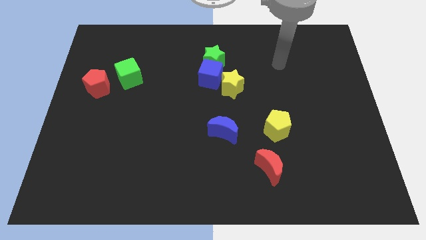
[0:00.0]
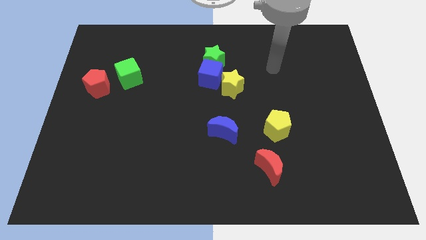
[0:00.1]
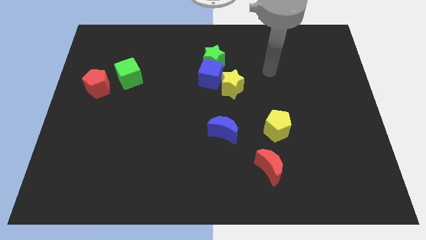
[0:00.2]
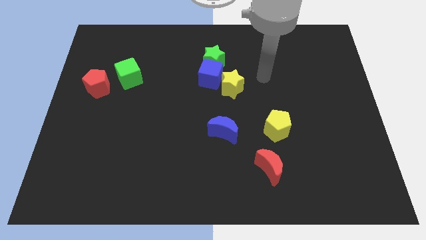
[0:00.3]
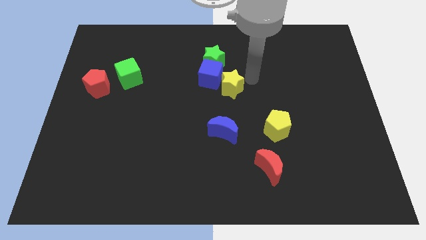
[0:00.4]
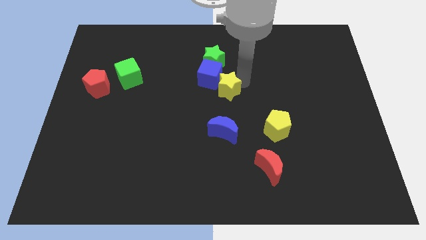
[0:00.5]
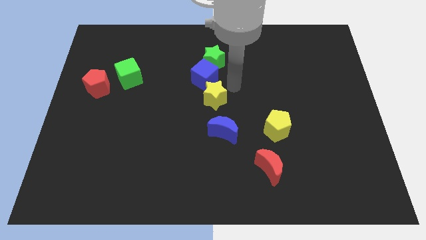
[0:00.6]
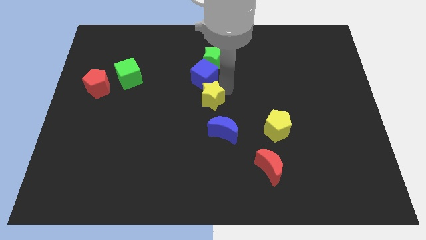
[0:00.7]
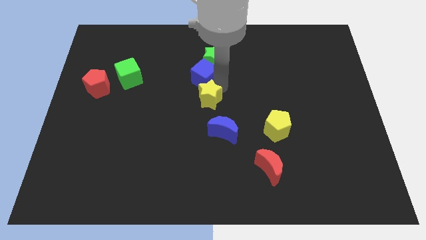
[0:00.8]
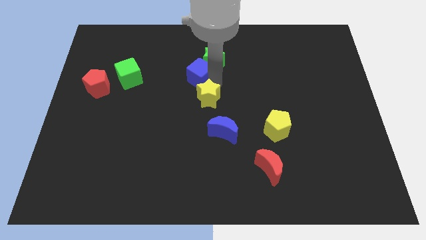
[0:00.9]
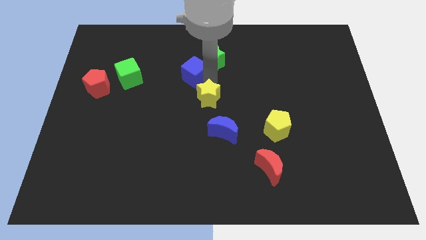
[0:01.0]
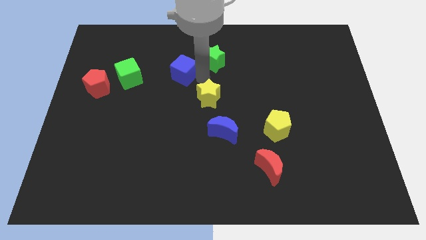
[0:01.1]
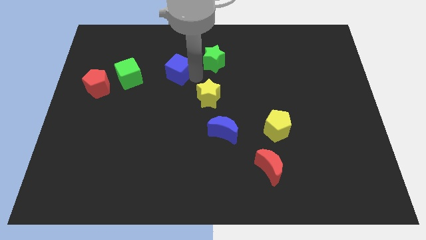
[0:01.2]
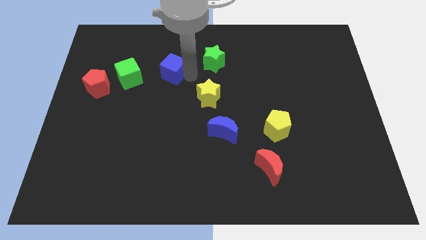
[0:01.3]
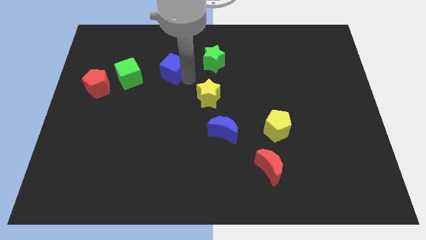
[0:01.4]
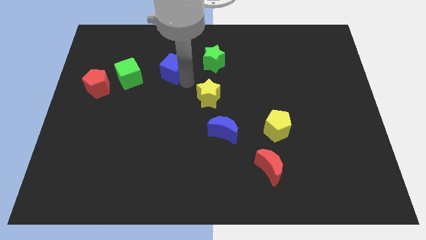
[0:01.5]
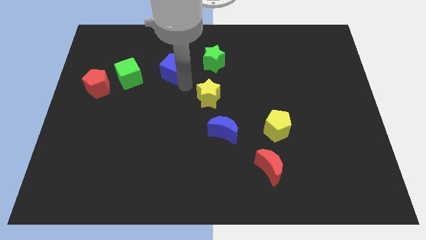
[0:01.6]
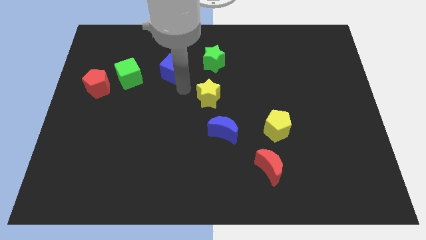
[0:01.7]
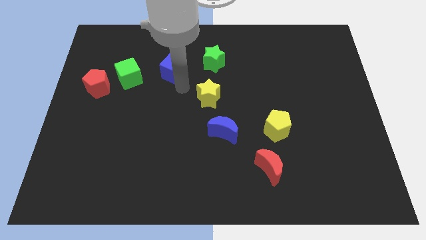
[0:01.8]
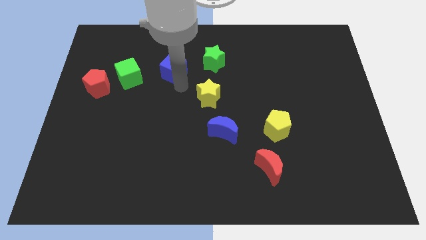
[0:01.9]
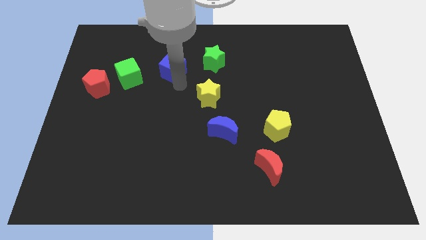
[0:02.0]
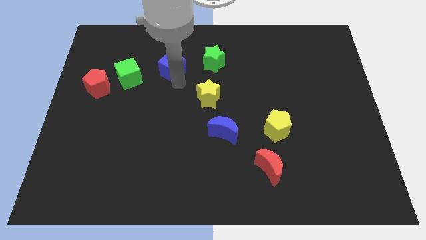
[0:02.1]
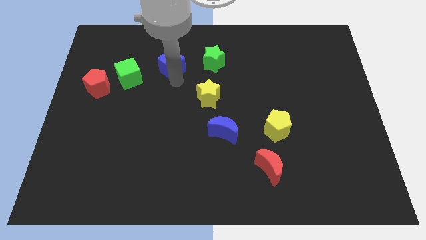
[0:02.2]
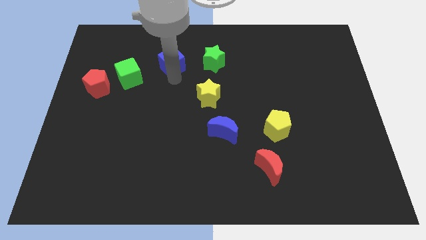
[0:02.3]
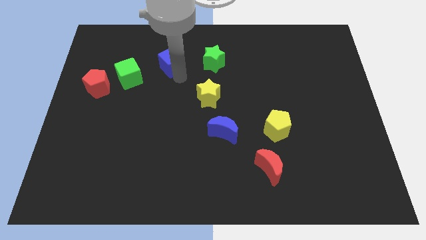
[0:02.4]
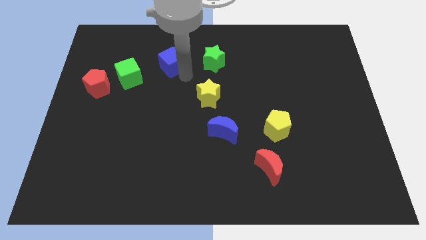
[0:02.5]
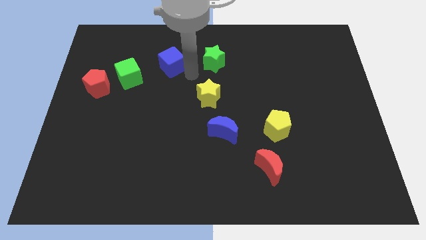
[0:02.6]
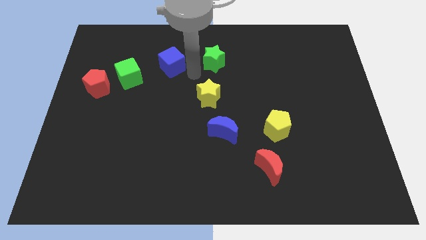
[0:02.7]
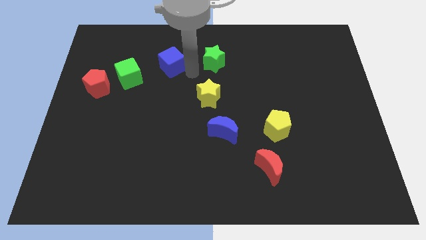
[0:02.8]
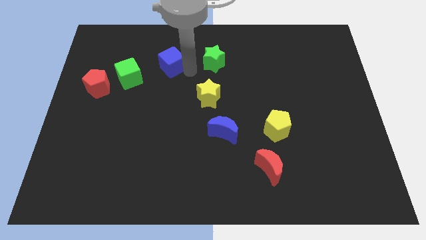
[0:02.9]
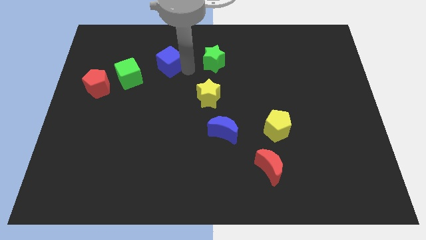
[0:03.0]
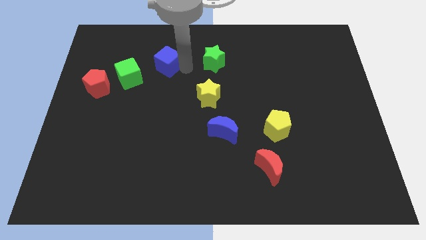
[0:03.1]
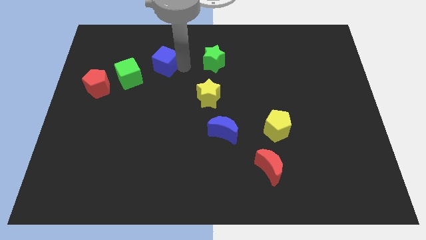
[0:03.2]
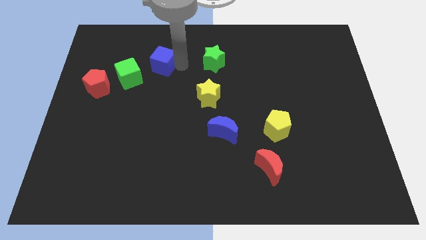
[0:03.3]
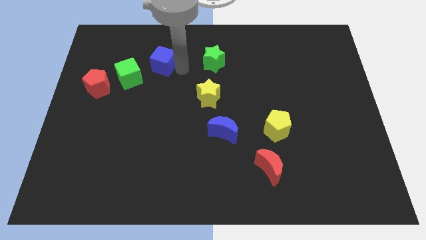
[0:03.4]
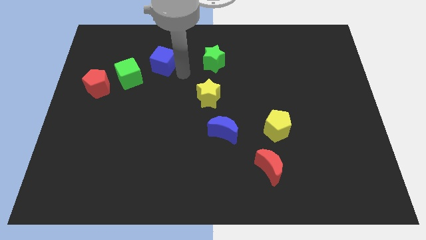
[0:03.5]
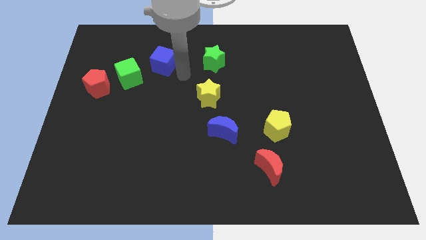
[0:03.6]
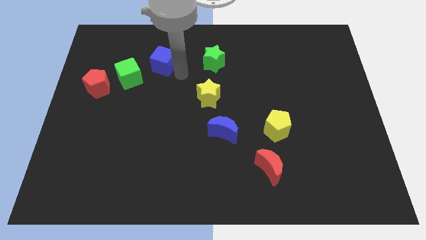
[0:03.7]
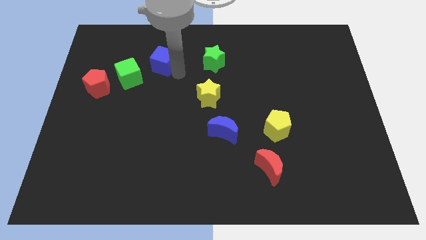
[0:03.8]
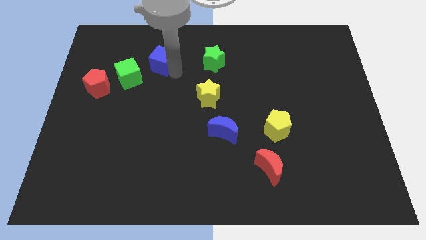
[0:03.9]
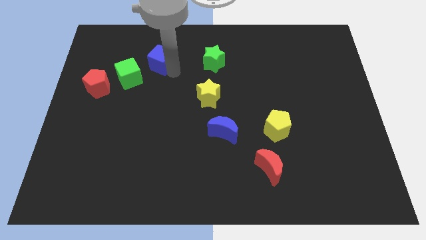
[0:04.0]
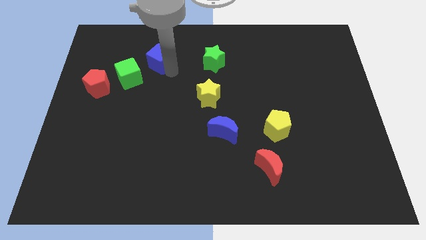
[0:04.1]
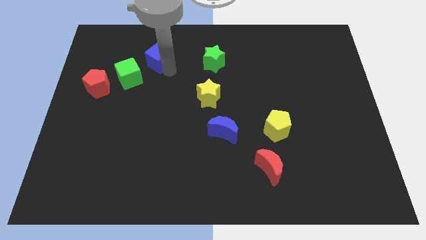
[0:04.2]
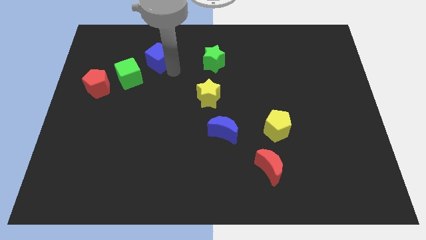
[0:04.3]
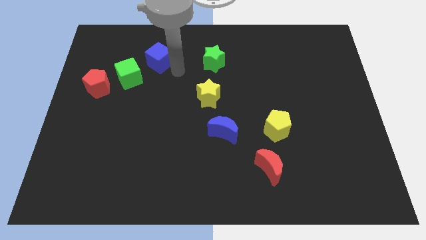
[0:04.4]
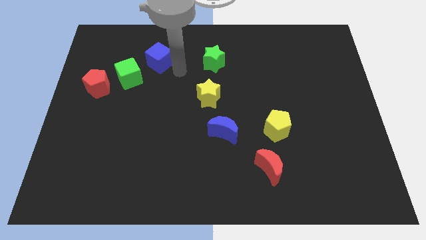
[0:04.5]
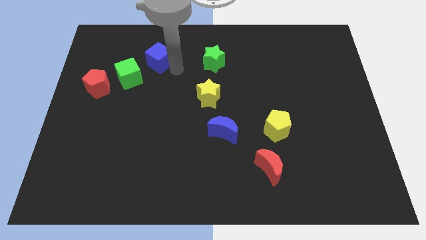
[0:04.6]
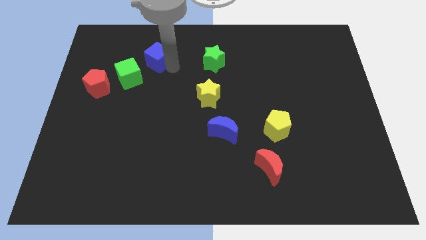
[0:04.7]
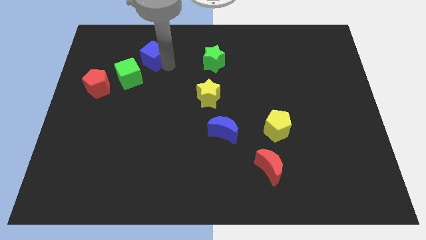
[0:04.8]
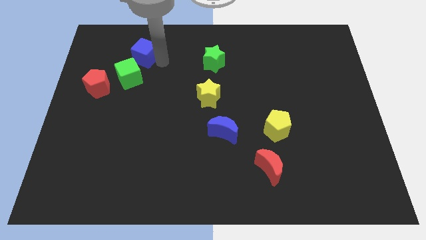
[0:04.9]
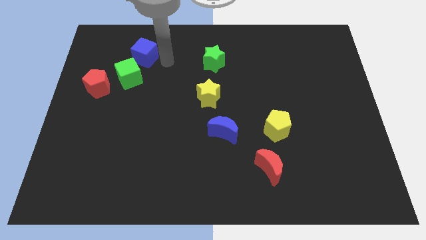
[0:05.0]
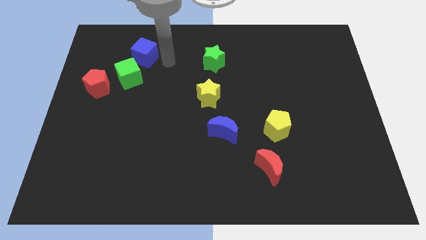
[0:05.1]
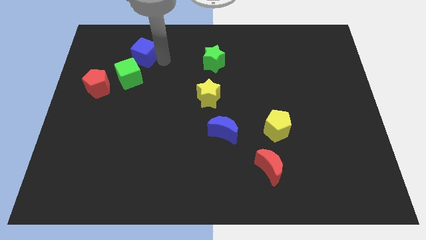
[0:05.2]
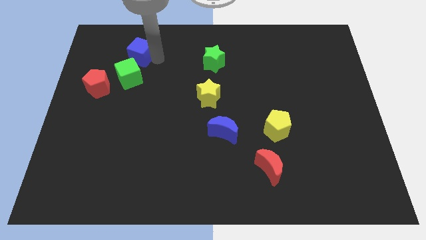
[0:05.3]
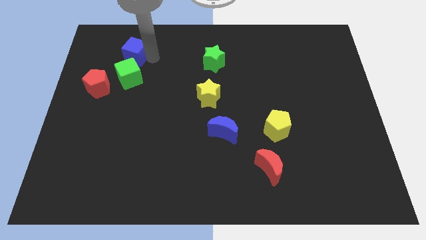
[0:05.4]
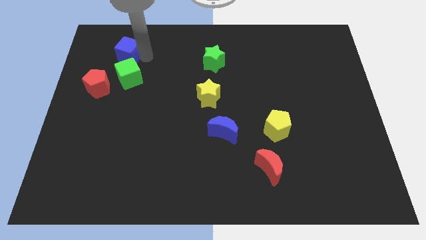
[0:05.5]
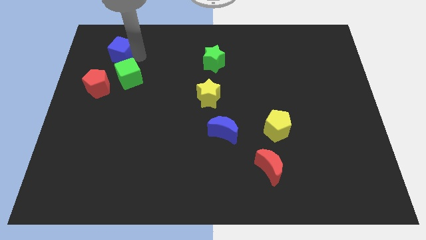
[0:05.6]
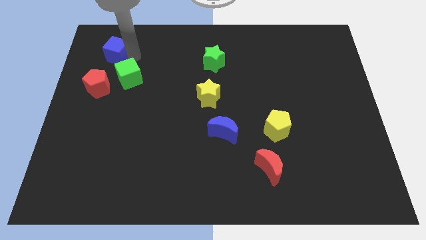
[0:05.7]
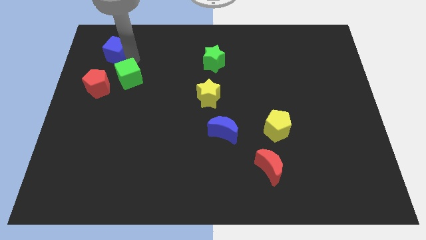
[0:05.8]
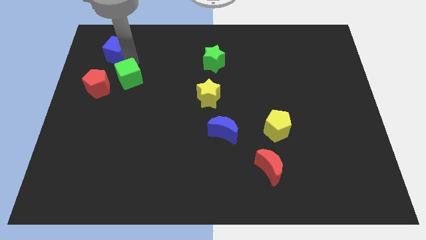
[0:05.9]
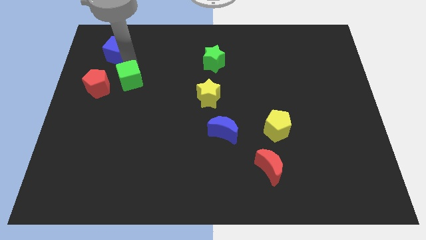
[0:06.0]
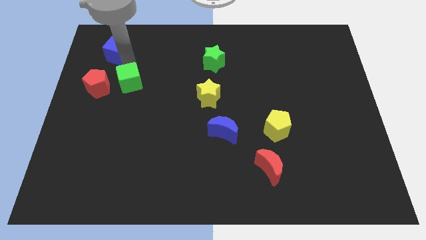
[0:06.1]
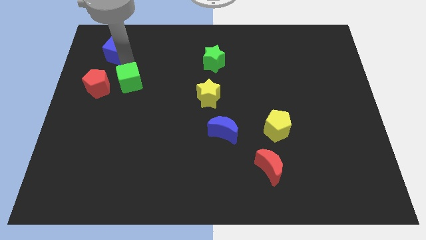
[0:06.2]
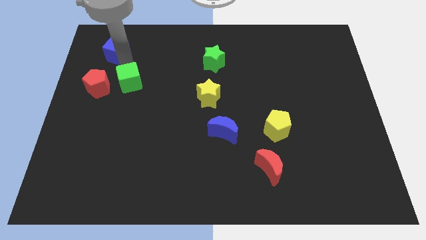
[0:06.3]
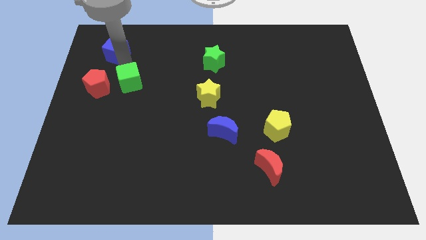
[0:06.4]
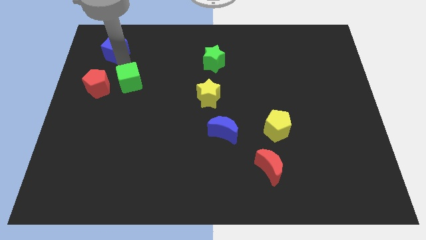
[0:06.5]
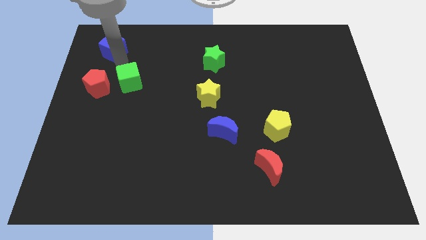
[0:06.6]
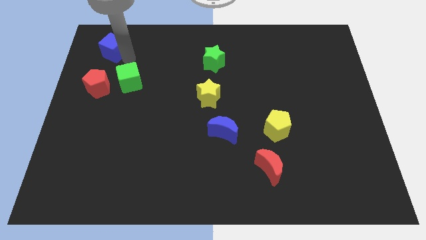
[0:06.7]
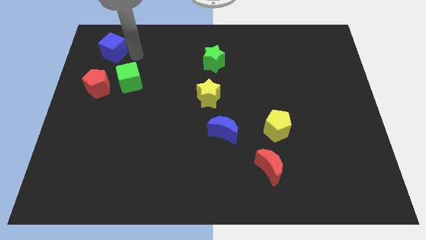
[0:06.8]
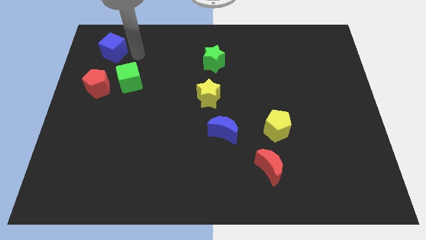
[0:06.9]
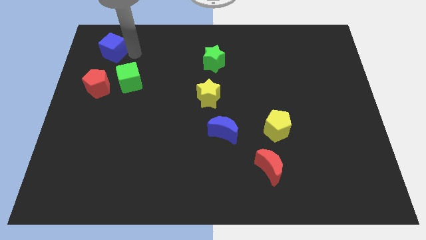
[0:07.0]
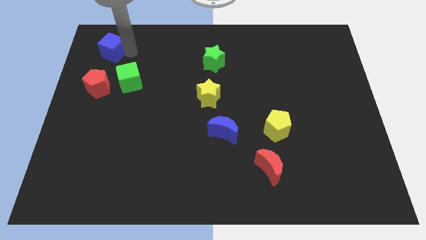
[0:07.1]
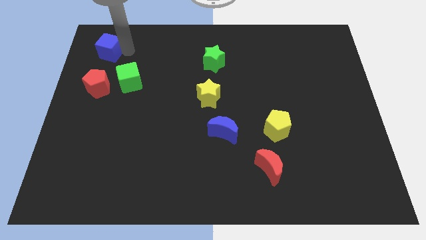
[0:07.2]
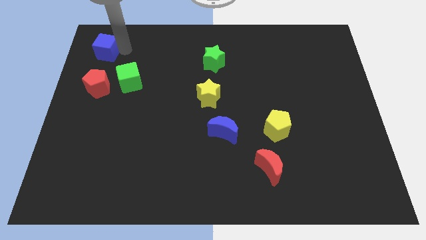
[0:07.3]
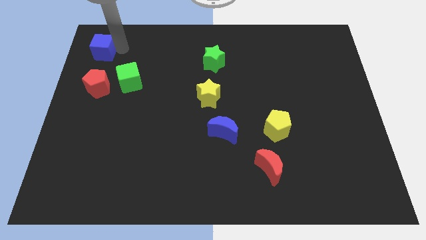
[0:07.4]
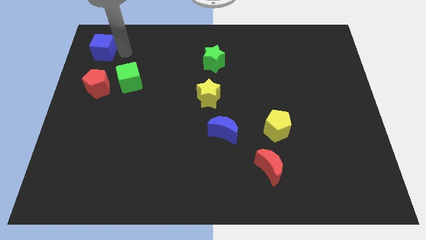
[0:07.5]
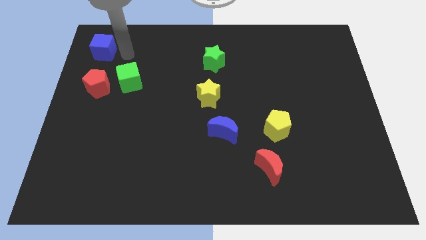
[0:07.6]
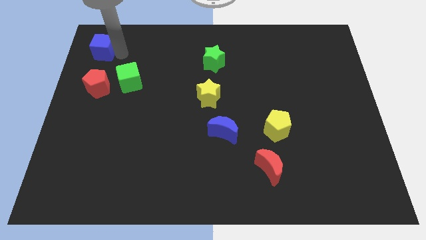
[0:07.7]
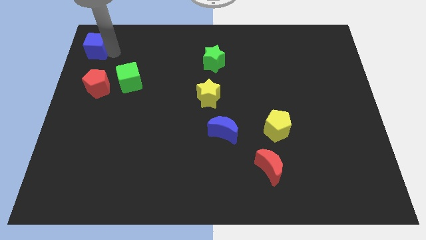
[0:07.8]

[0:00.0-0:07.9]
move the blue cube to the top left of the board
